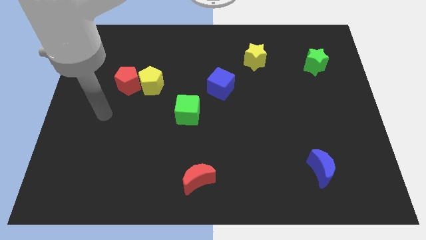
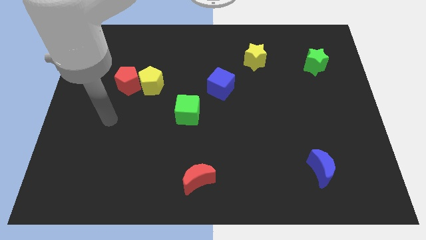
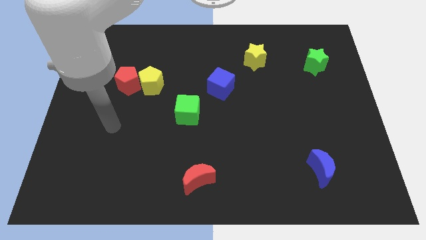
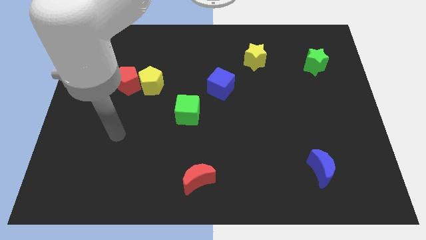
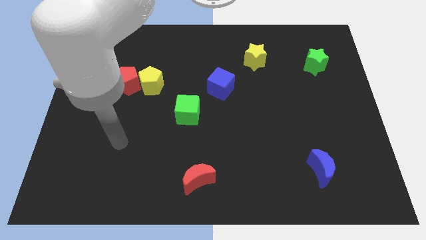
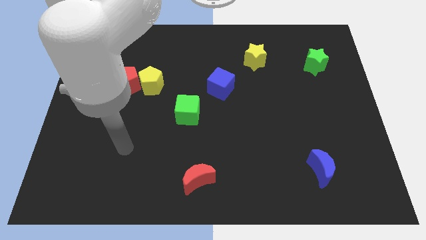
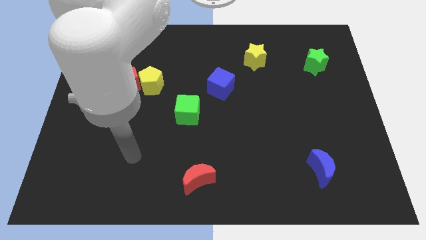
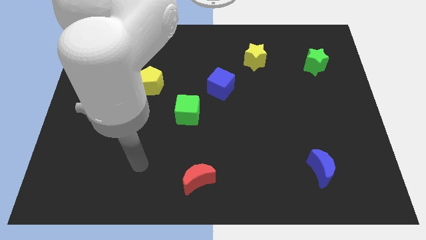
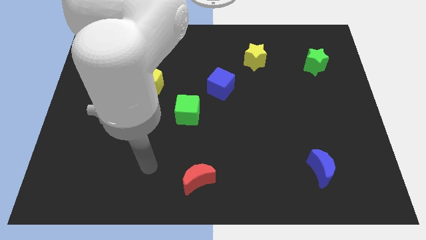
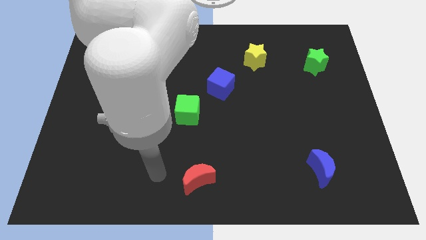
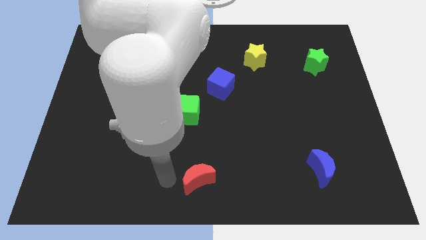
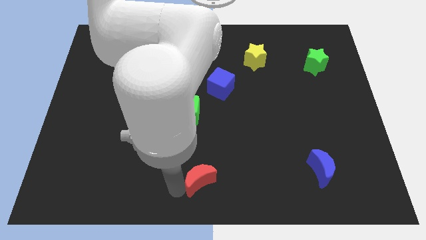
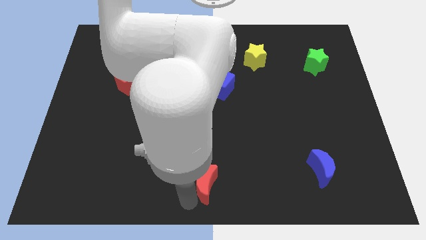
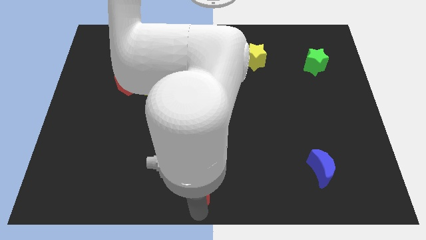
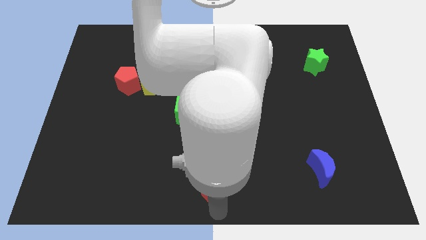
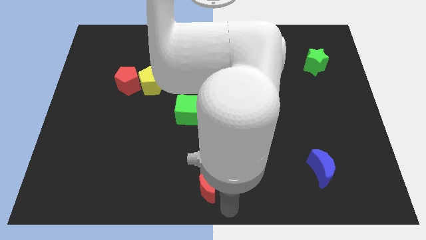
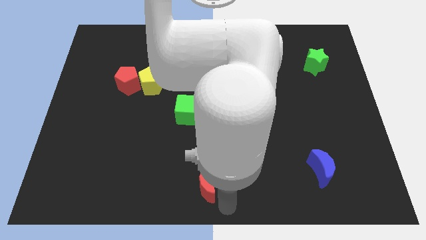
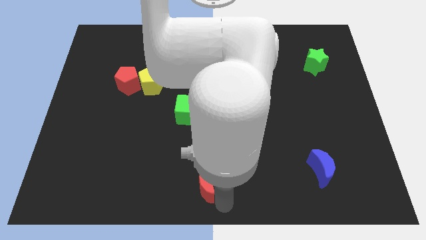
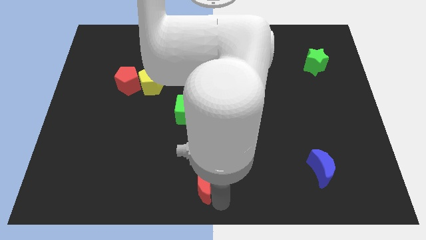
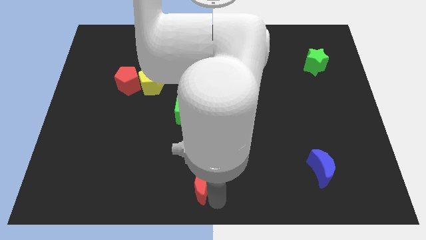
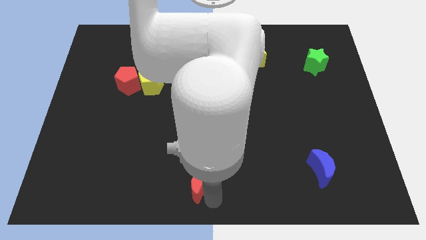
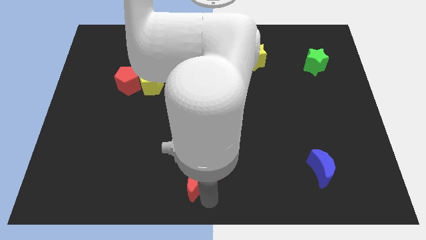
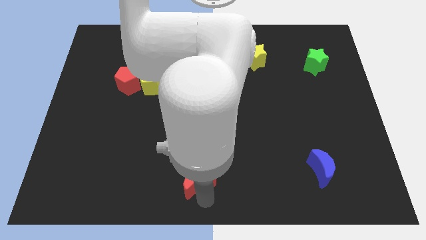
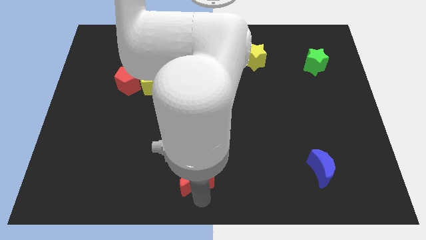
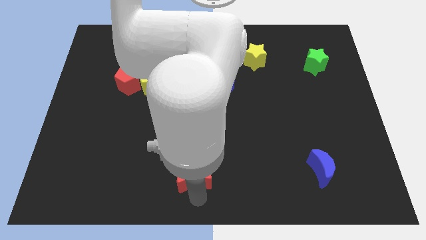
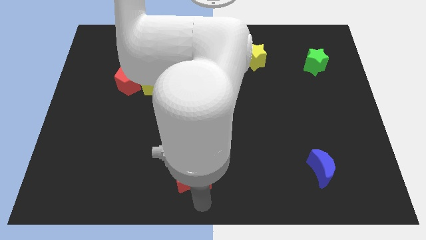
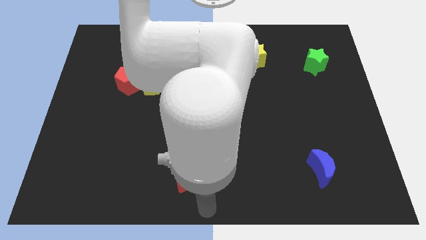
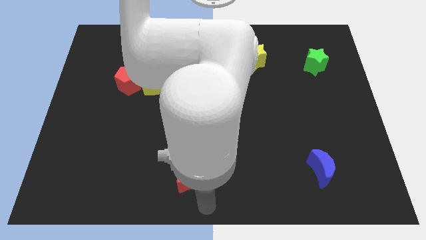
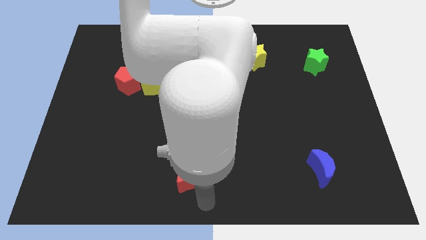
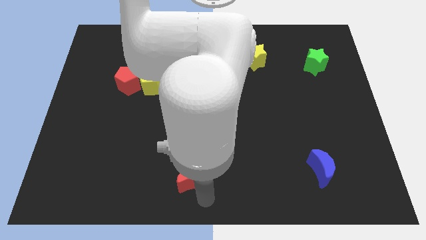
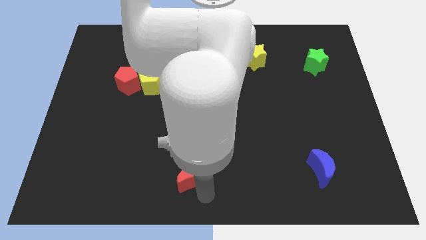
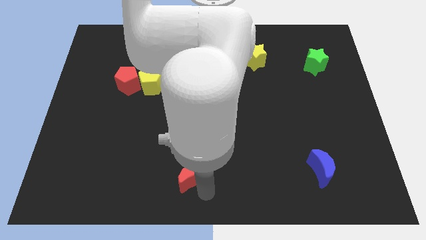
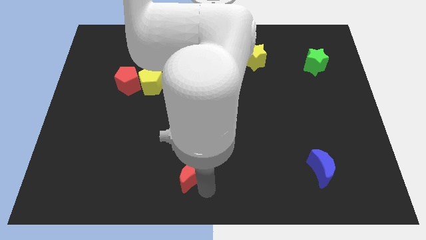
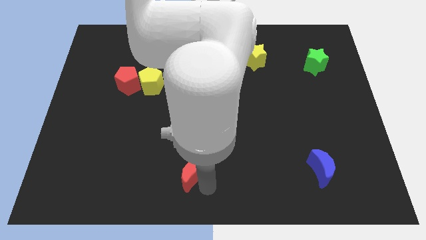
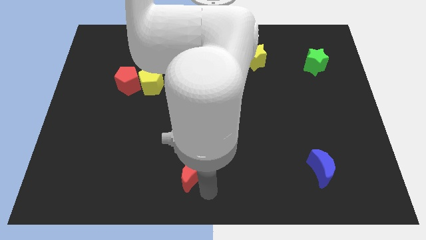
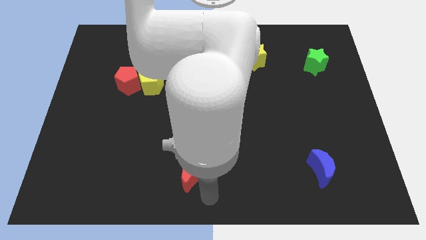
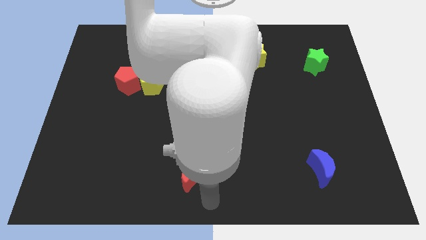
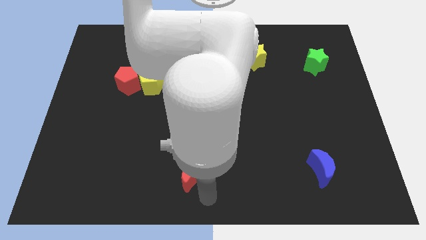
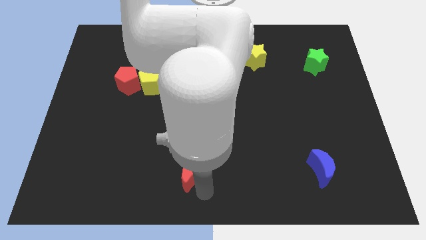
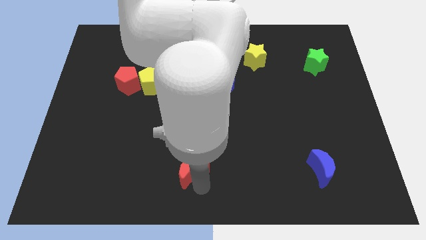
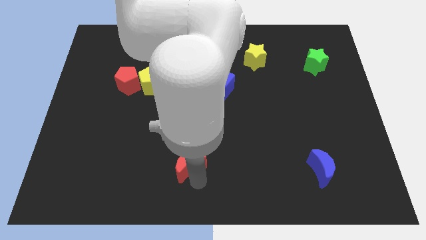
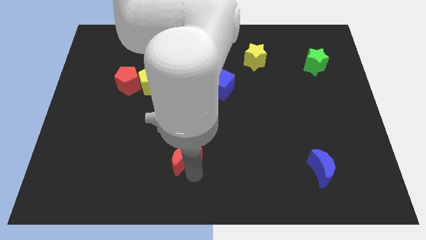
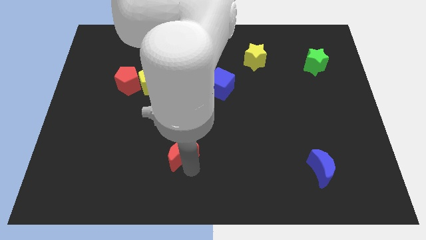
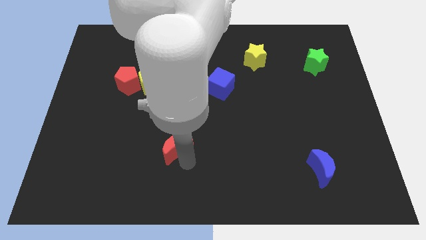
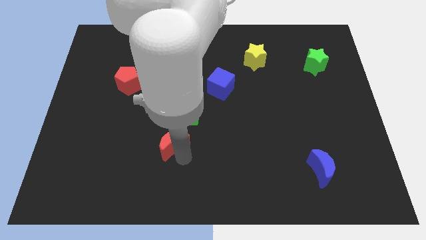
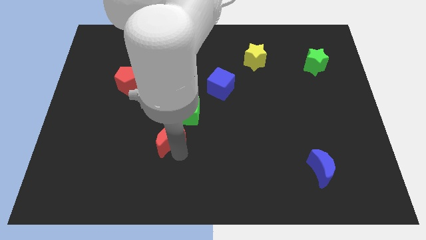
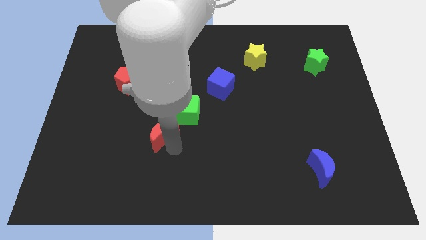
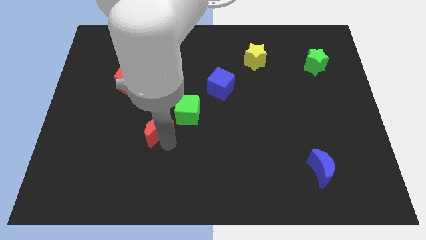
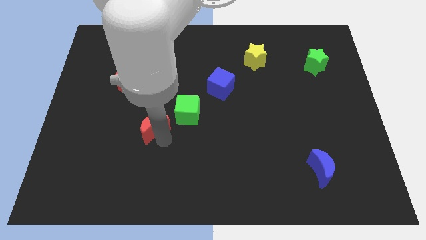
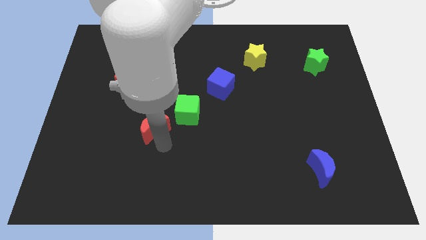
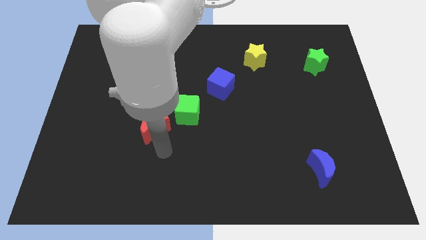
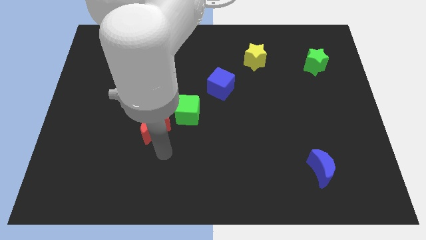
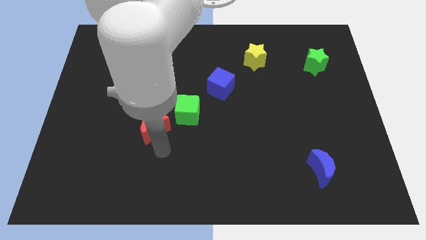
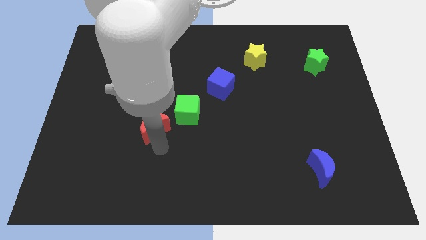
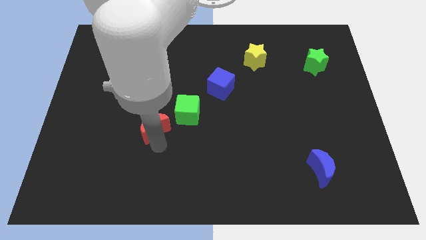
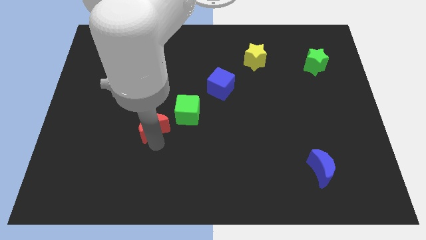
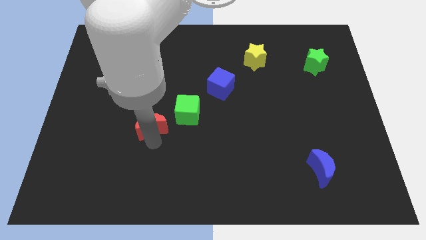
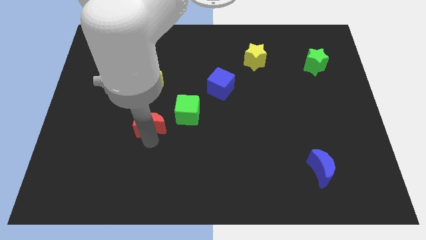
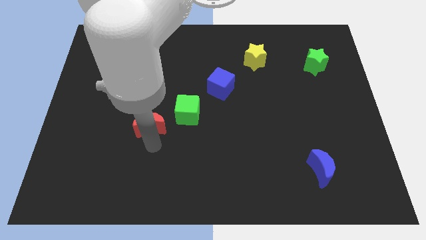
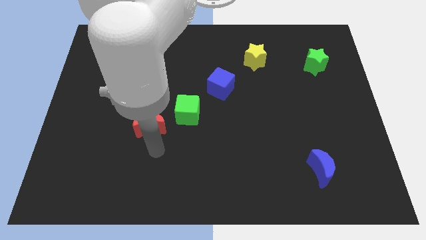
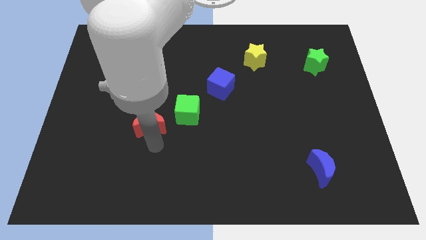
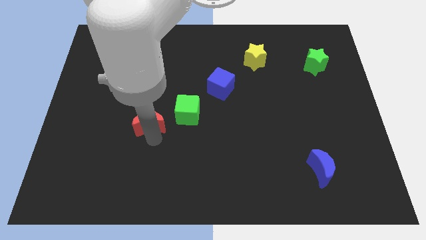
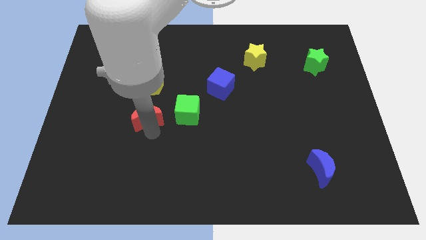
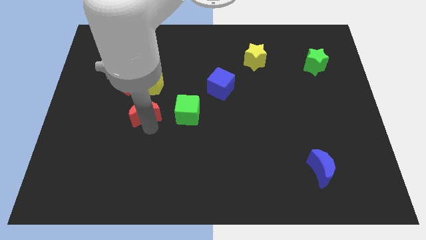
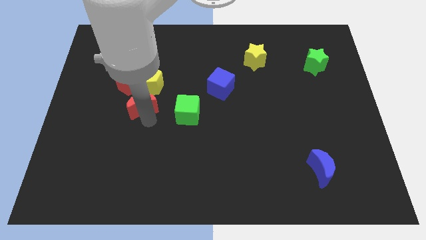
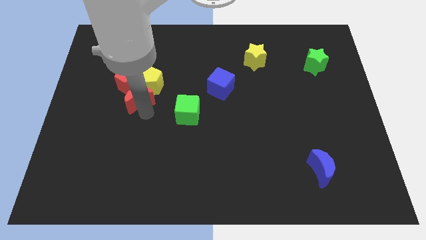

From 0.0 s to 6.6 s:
push the red moon towards the red pentagon

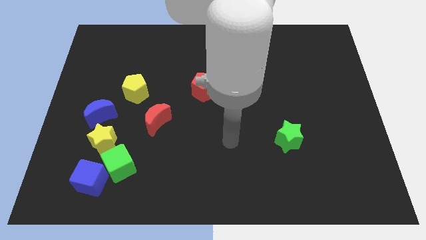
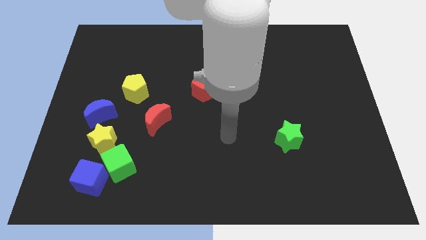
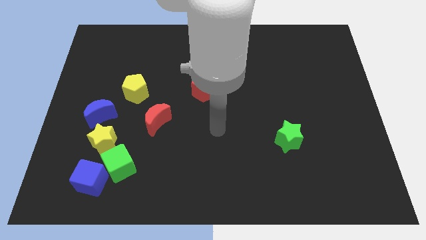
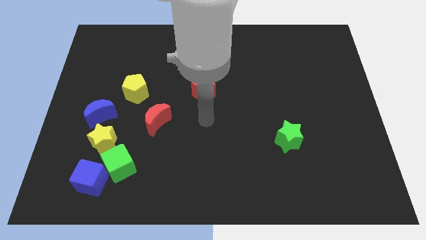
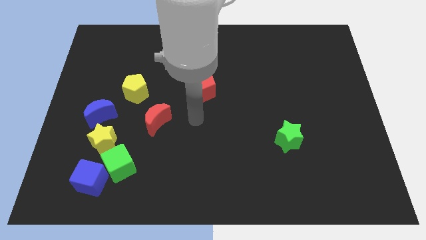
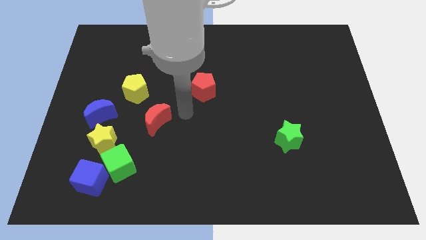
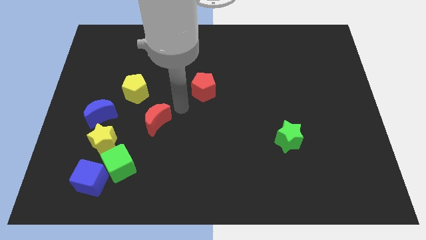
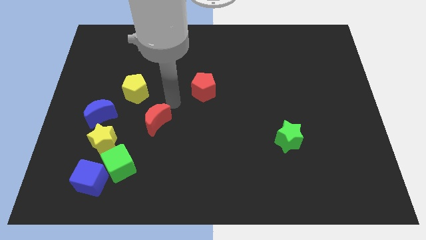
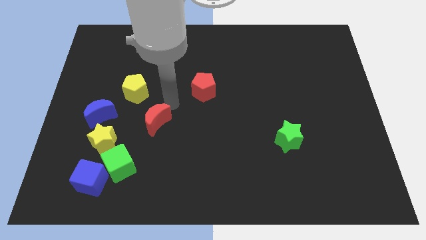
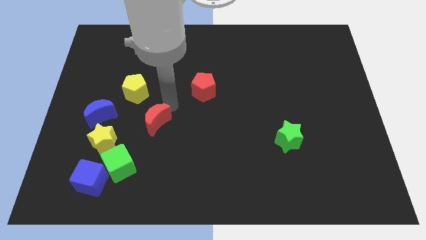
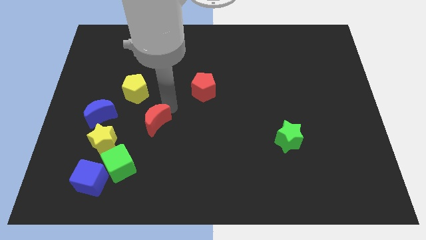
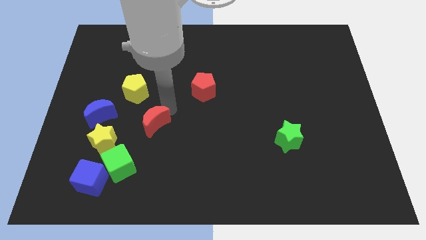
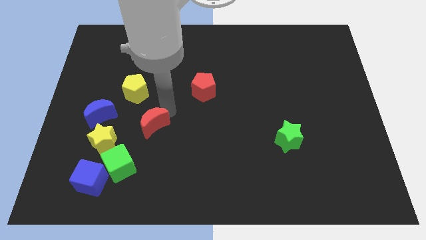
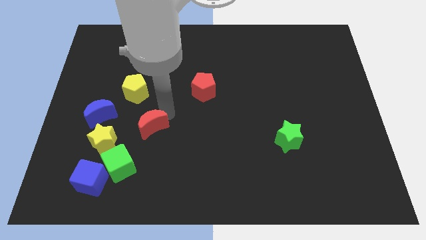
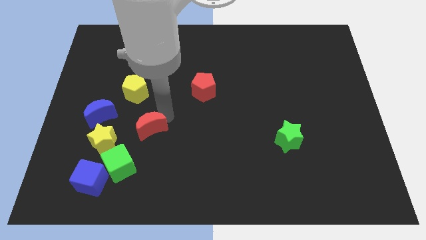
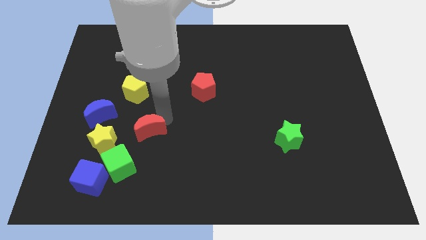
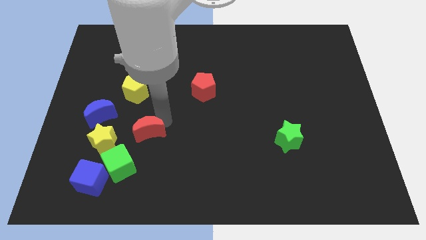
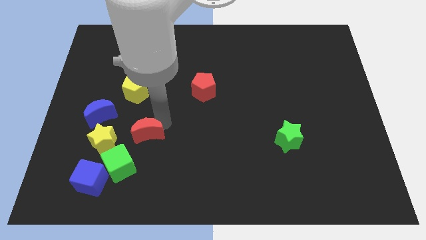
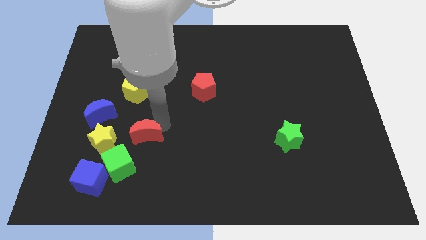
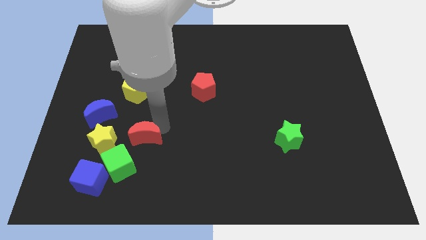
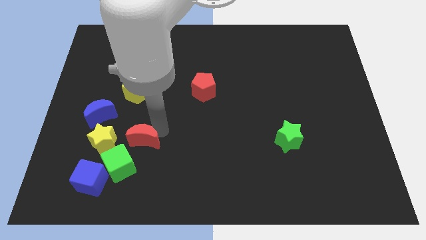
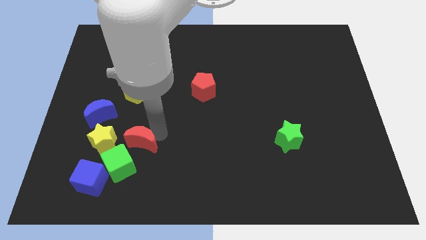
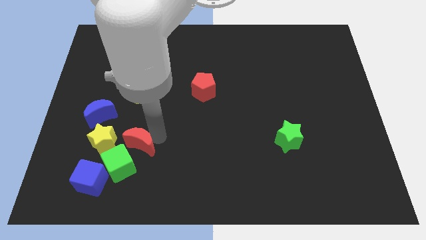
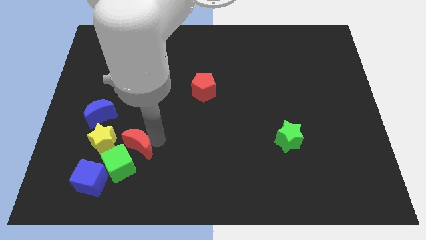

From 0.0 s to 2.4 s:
put the red moon towards the green cube
